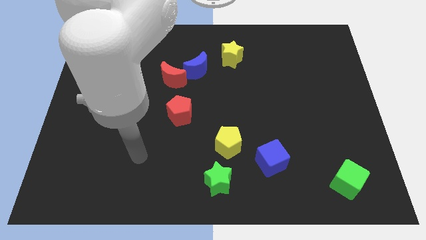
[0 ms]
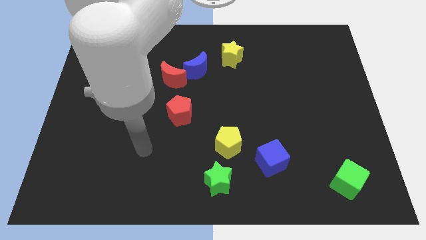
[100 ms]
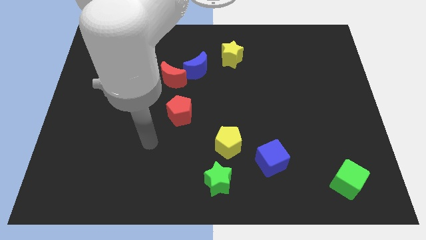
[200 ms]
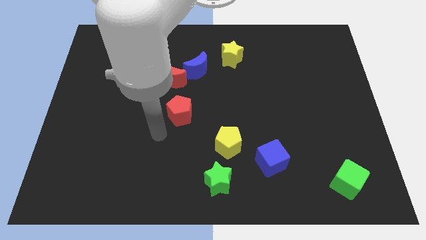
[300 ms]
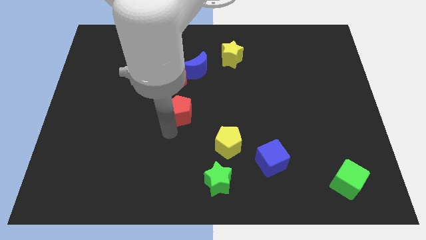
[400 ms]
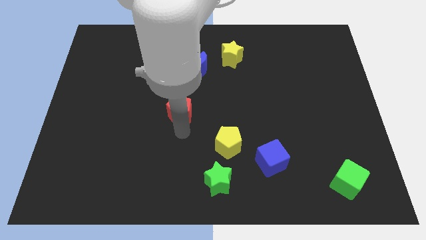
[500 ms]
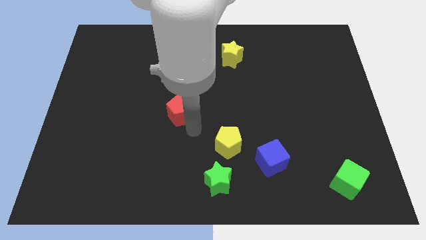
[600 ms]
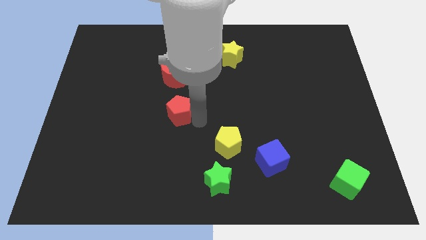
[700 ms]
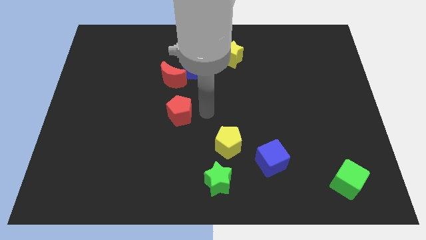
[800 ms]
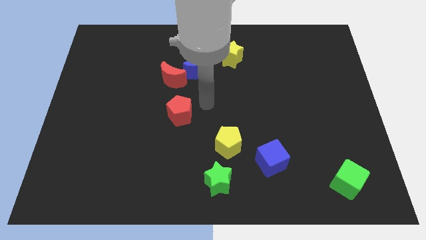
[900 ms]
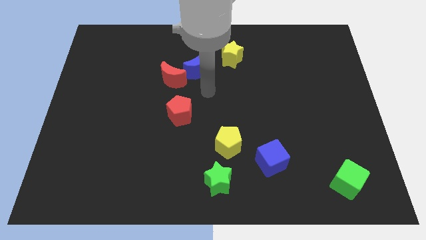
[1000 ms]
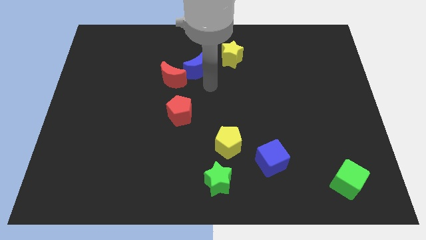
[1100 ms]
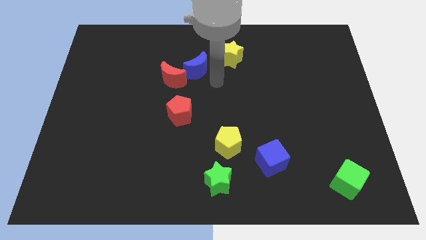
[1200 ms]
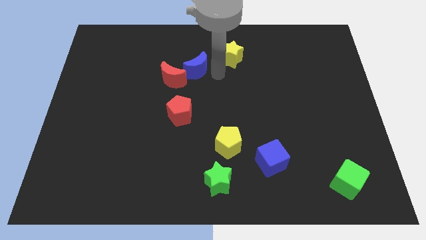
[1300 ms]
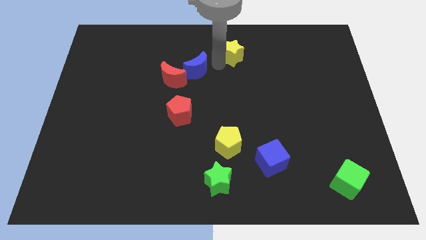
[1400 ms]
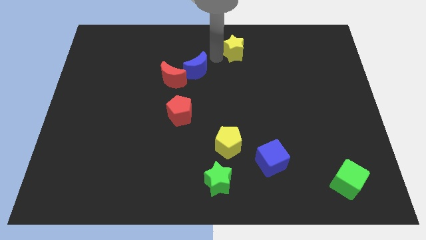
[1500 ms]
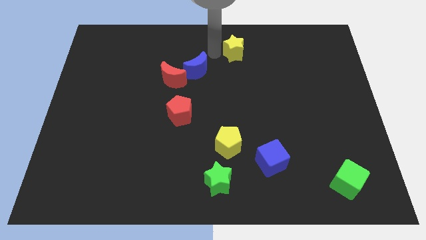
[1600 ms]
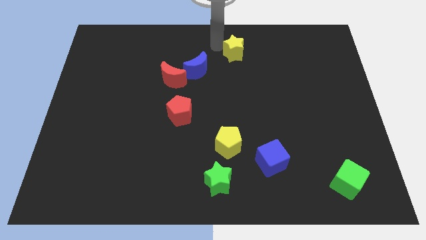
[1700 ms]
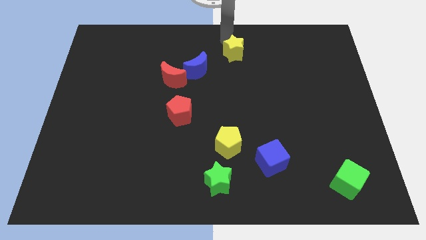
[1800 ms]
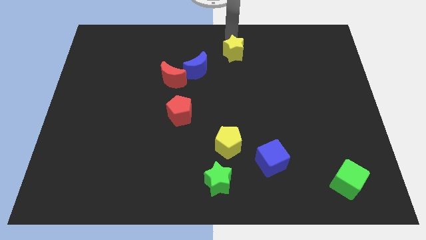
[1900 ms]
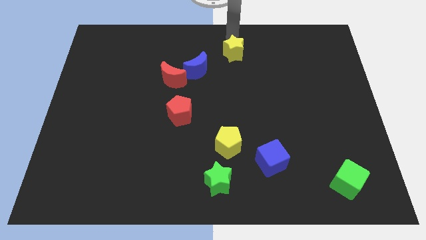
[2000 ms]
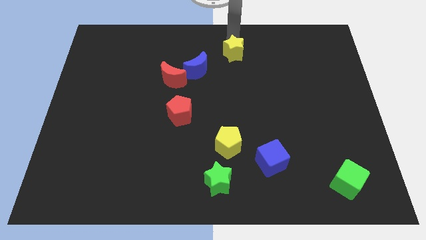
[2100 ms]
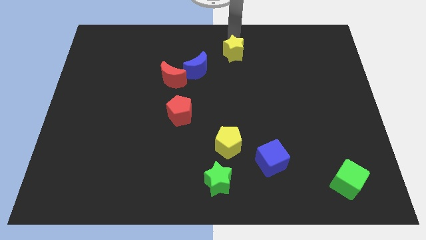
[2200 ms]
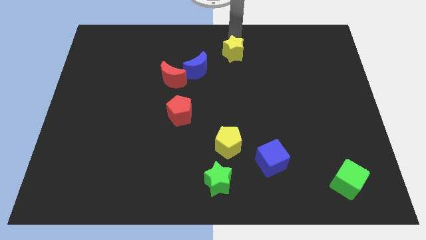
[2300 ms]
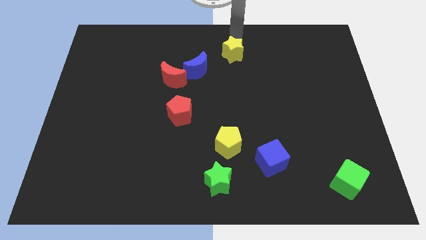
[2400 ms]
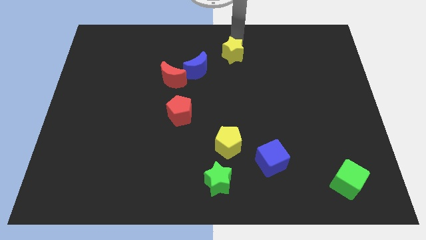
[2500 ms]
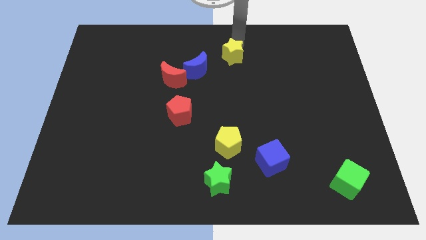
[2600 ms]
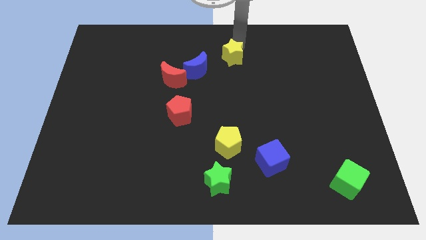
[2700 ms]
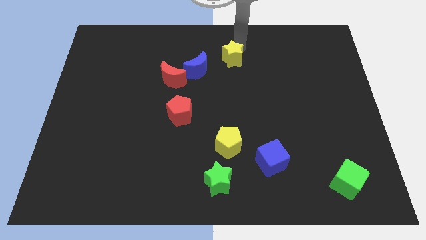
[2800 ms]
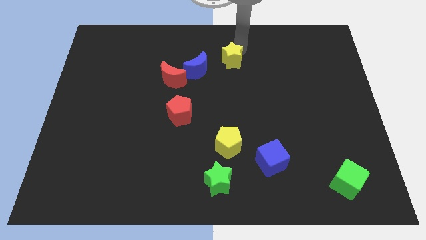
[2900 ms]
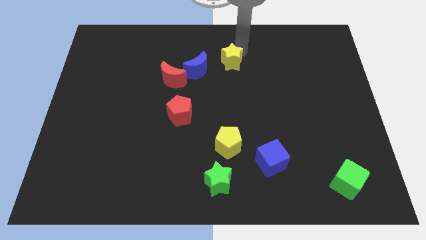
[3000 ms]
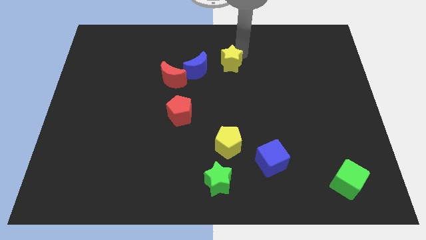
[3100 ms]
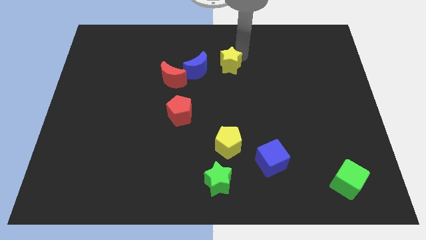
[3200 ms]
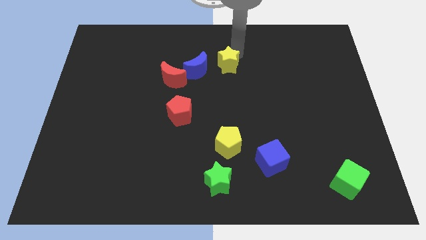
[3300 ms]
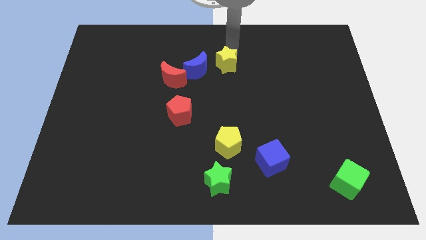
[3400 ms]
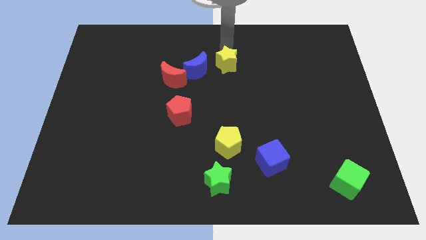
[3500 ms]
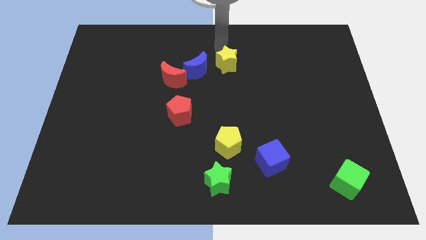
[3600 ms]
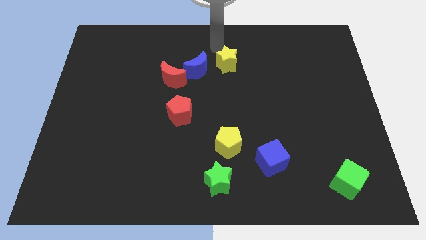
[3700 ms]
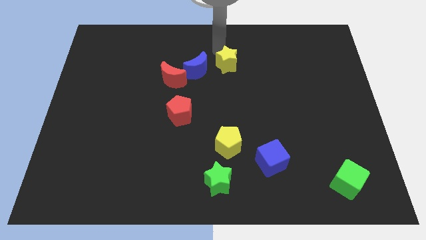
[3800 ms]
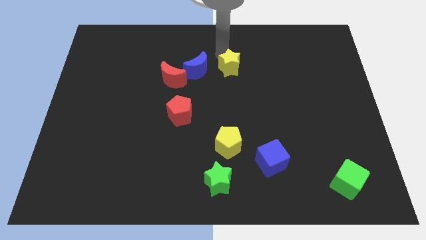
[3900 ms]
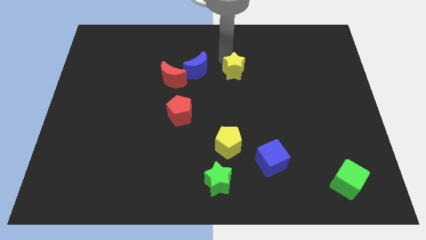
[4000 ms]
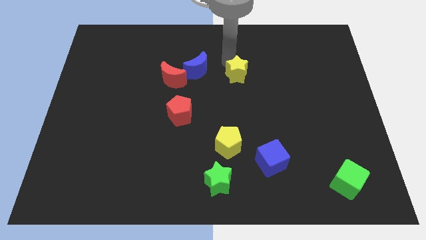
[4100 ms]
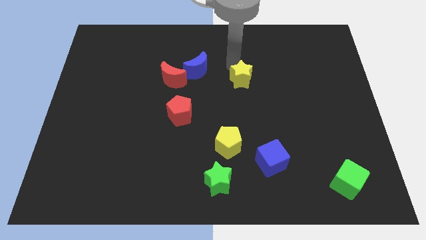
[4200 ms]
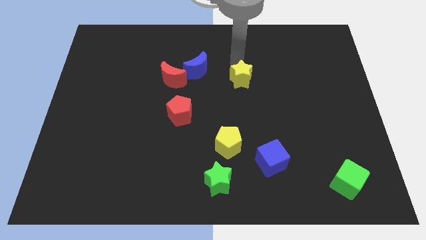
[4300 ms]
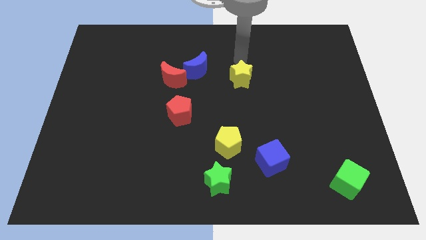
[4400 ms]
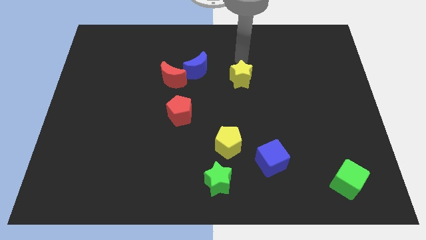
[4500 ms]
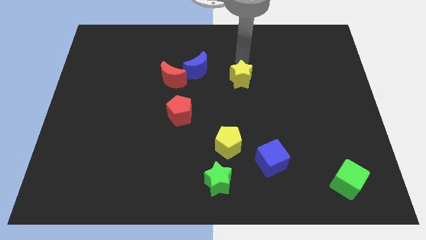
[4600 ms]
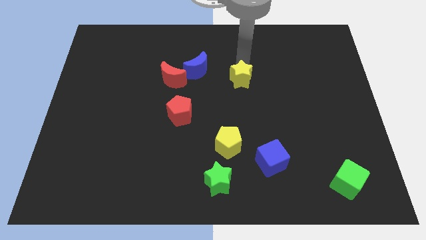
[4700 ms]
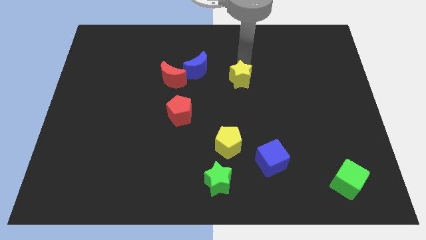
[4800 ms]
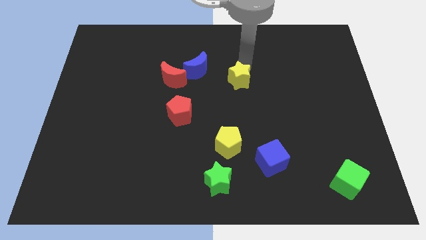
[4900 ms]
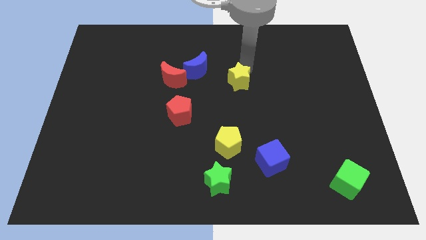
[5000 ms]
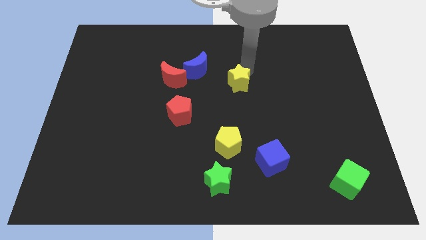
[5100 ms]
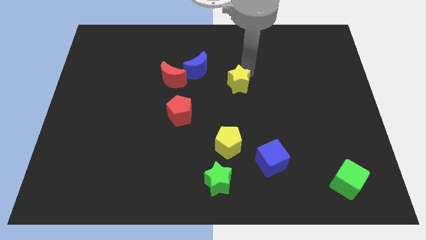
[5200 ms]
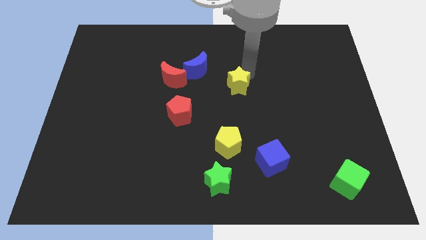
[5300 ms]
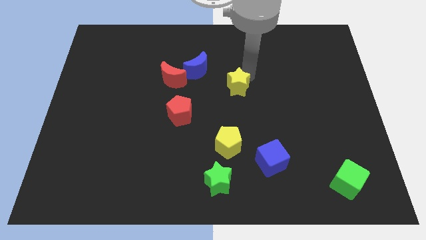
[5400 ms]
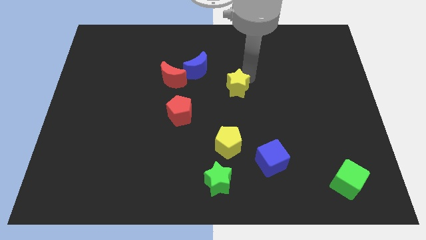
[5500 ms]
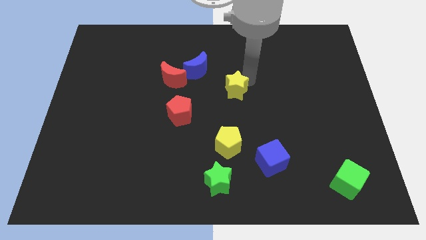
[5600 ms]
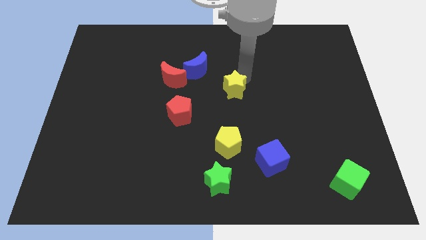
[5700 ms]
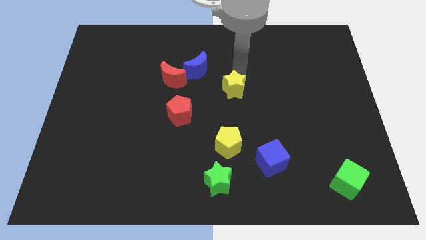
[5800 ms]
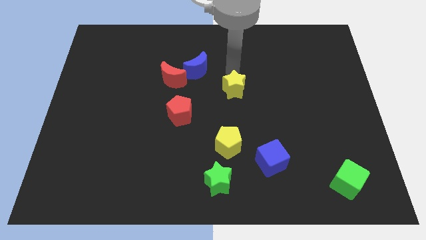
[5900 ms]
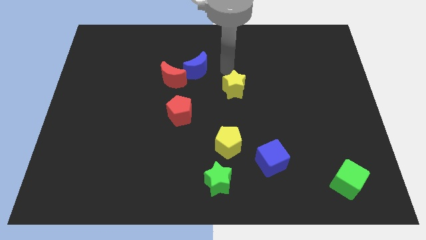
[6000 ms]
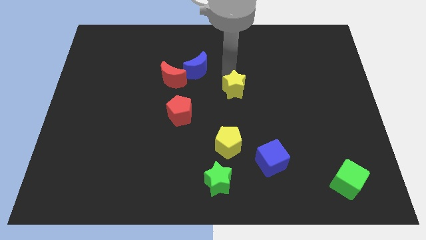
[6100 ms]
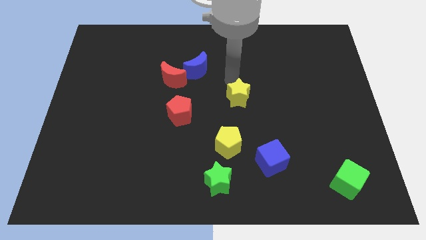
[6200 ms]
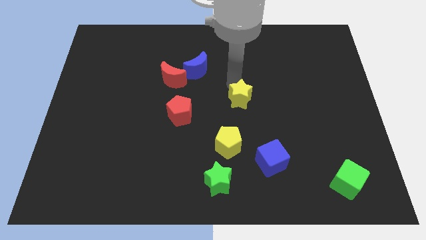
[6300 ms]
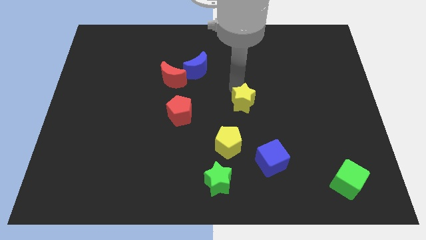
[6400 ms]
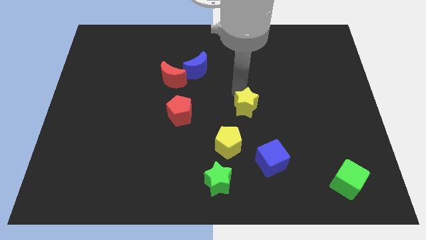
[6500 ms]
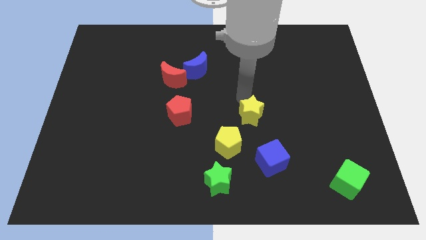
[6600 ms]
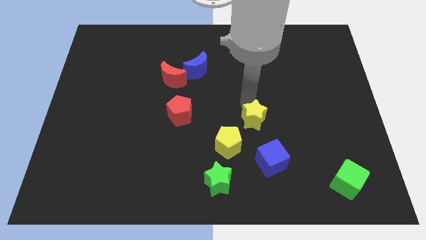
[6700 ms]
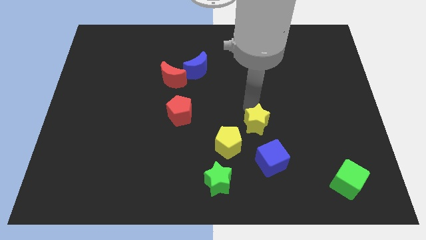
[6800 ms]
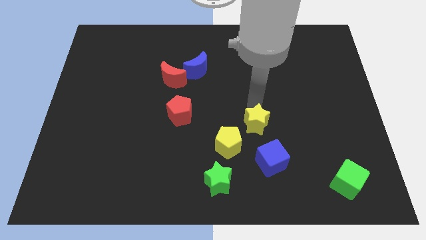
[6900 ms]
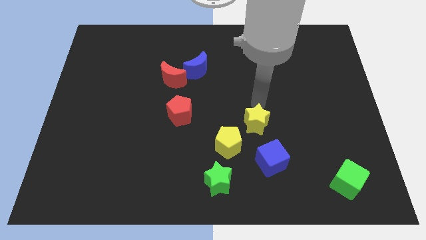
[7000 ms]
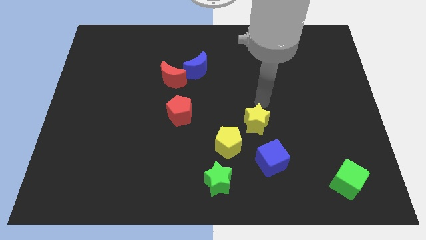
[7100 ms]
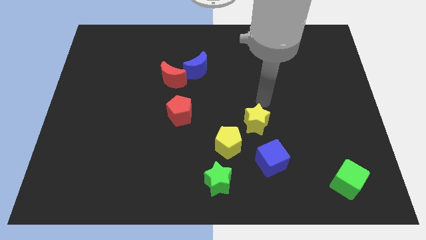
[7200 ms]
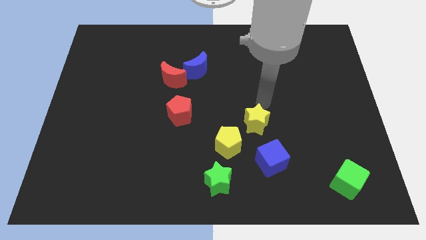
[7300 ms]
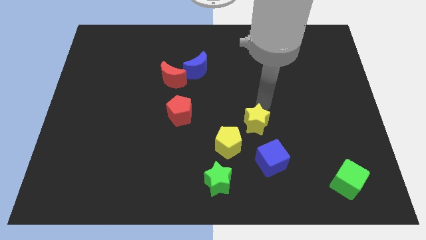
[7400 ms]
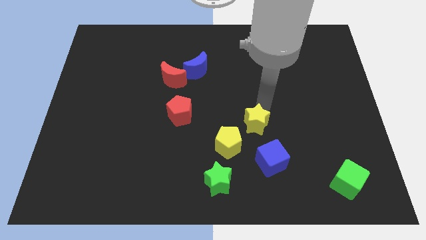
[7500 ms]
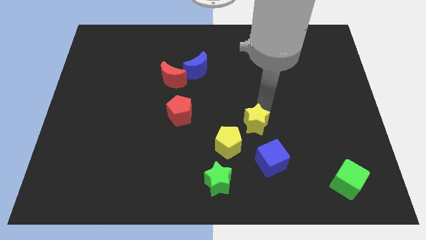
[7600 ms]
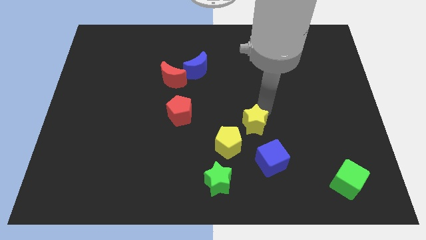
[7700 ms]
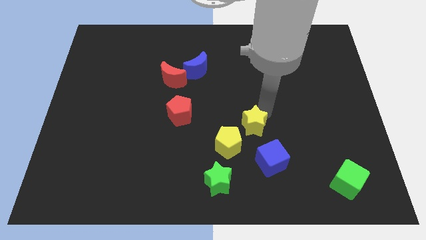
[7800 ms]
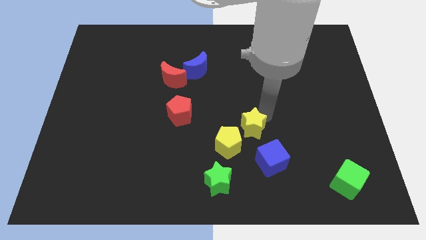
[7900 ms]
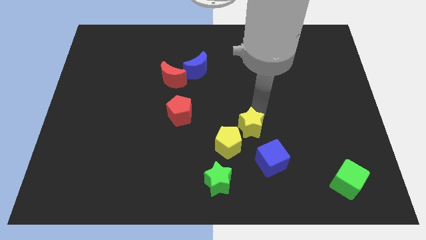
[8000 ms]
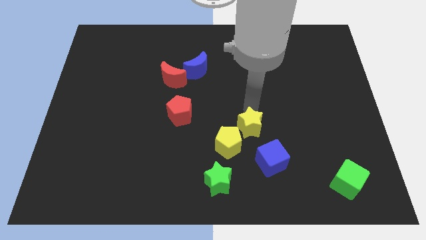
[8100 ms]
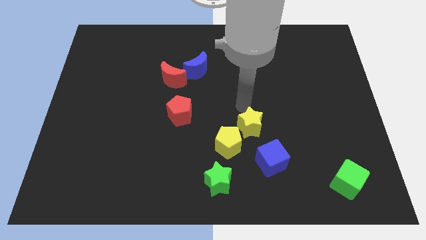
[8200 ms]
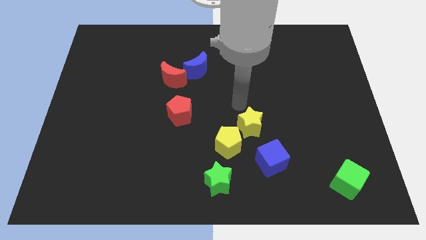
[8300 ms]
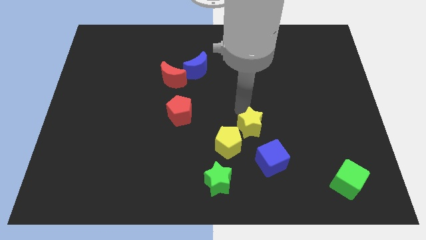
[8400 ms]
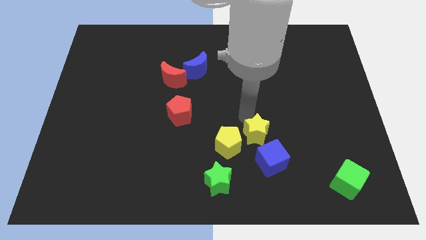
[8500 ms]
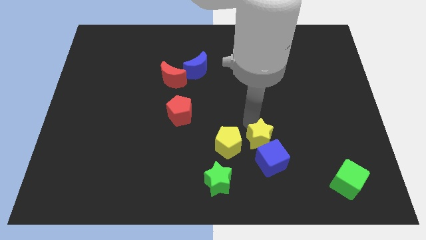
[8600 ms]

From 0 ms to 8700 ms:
put the yellow star to the blue cube
